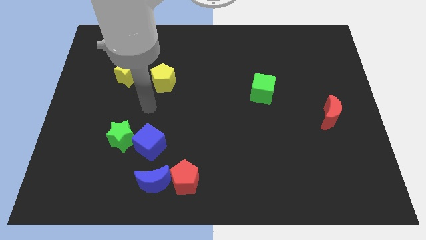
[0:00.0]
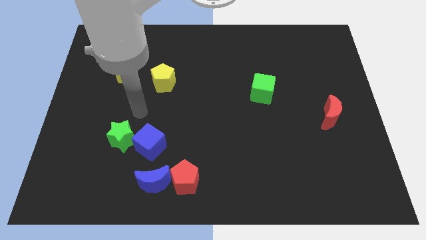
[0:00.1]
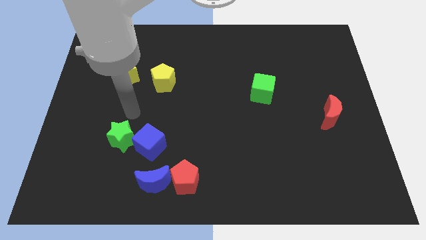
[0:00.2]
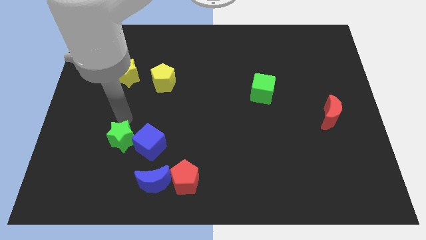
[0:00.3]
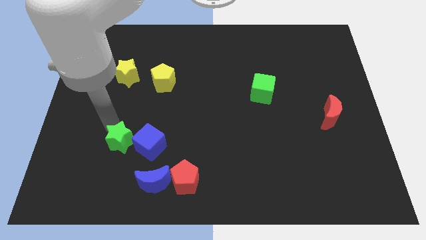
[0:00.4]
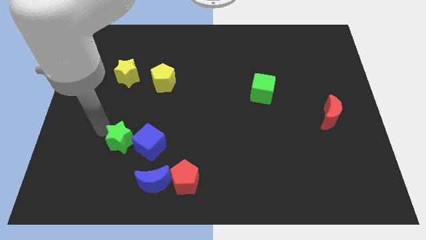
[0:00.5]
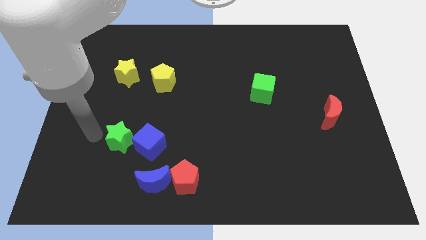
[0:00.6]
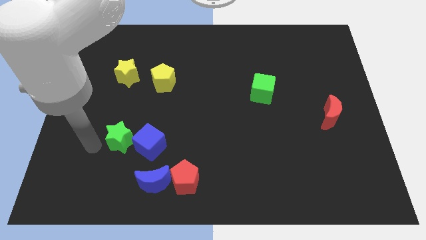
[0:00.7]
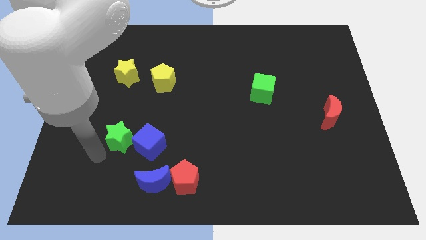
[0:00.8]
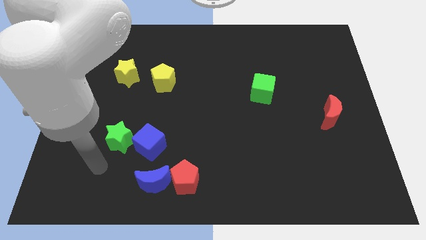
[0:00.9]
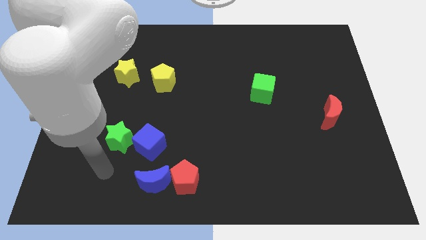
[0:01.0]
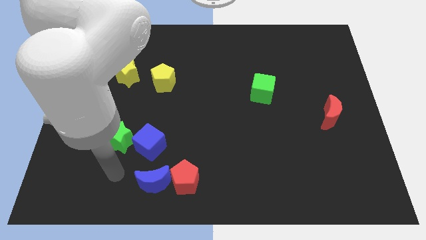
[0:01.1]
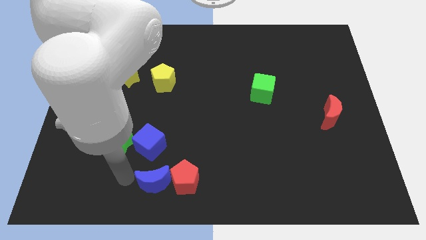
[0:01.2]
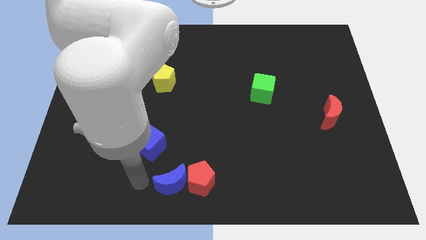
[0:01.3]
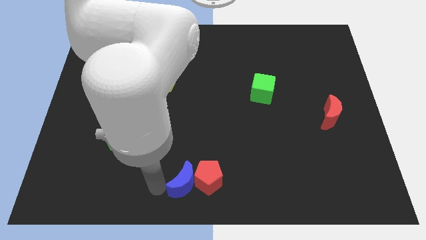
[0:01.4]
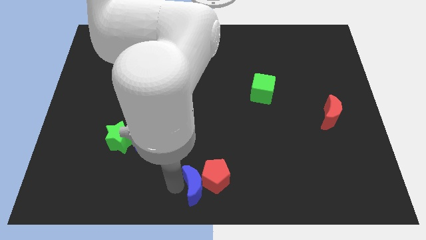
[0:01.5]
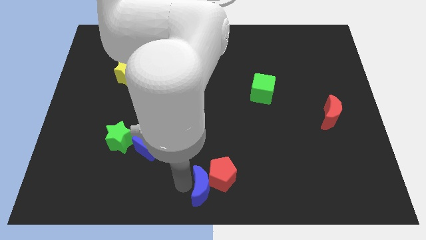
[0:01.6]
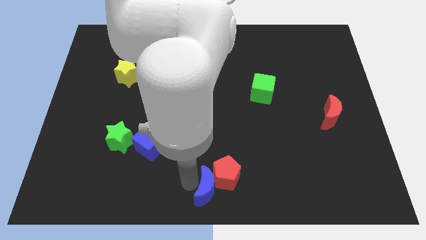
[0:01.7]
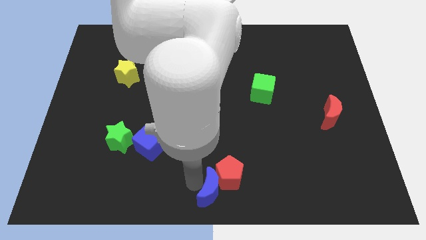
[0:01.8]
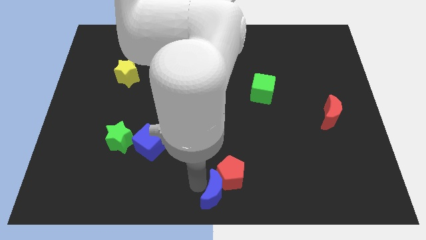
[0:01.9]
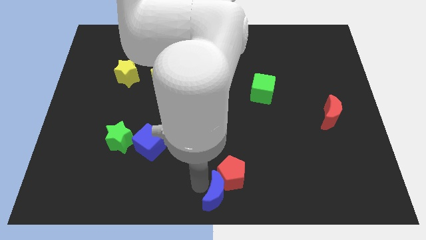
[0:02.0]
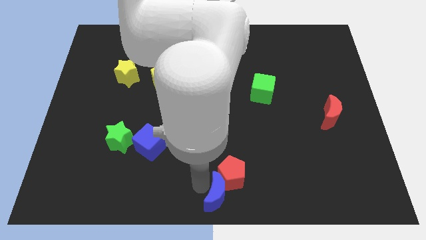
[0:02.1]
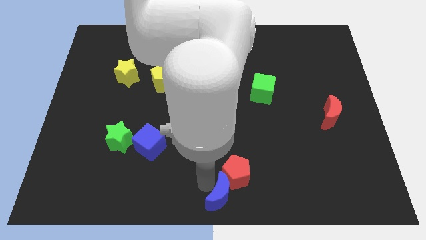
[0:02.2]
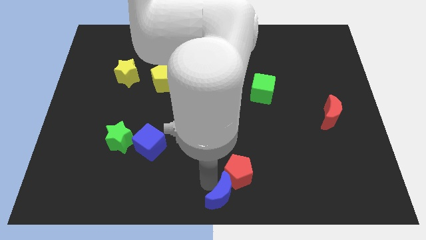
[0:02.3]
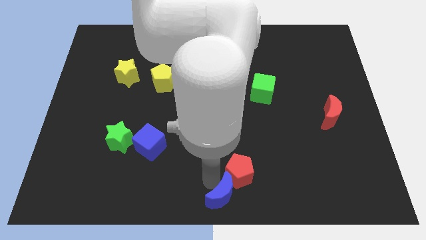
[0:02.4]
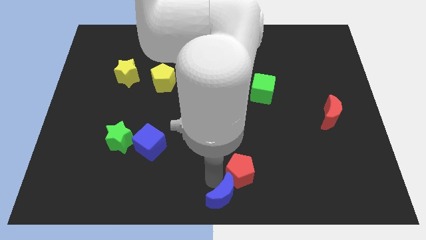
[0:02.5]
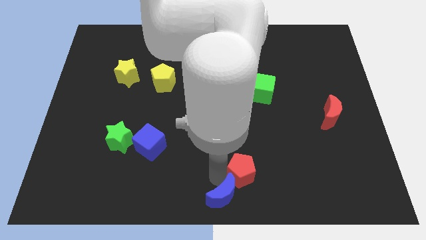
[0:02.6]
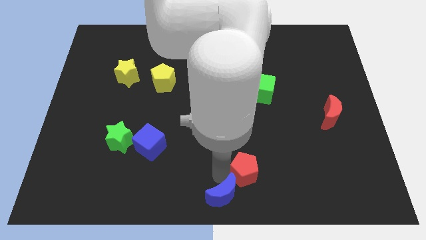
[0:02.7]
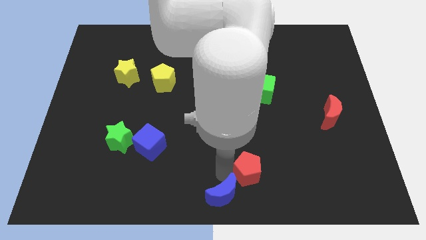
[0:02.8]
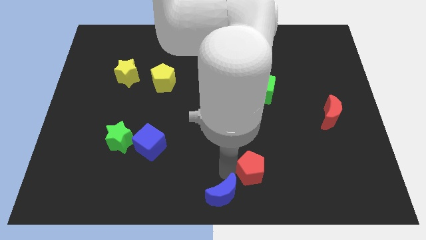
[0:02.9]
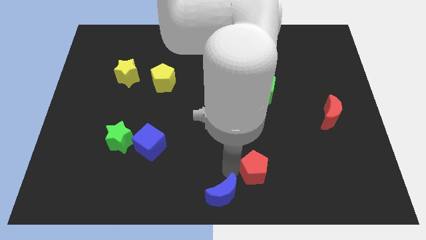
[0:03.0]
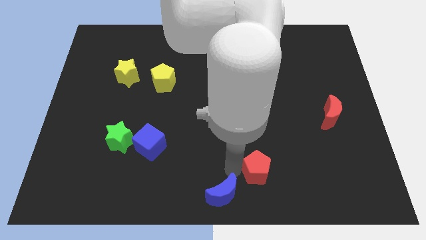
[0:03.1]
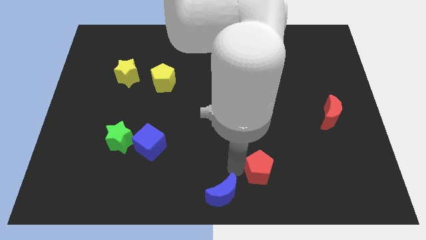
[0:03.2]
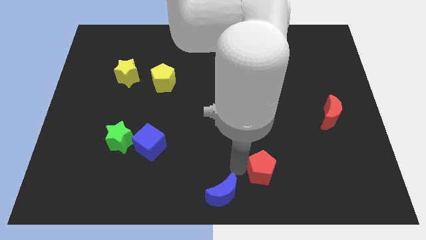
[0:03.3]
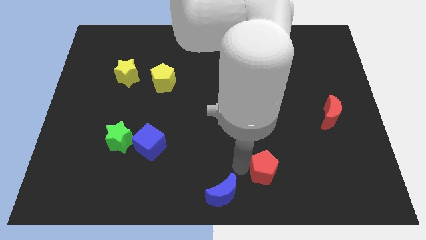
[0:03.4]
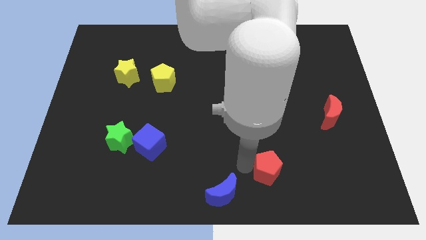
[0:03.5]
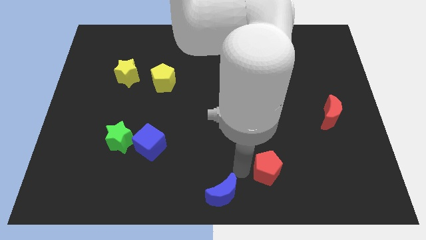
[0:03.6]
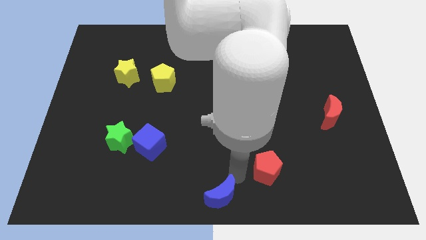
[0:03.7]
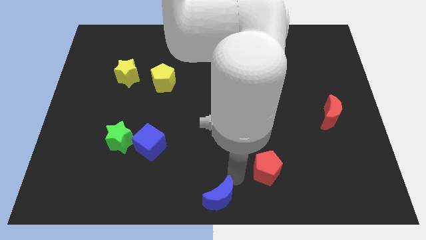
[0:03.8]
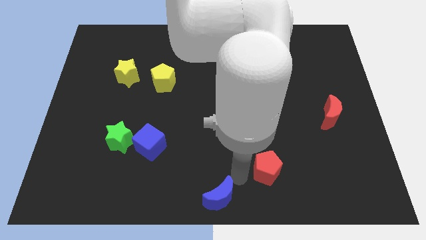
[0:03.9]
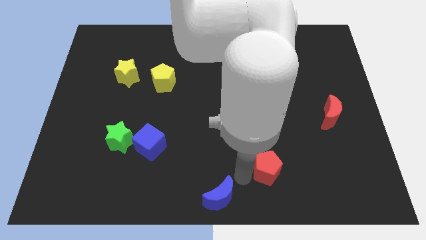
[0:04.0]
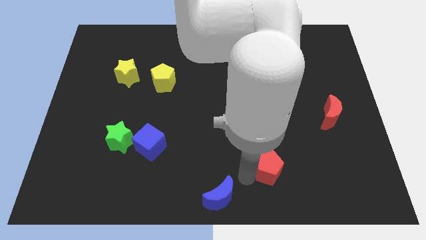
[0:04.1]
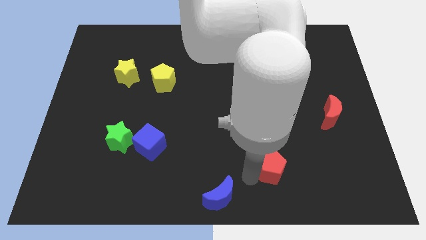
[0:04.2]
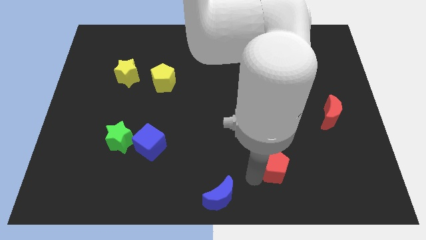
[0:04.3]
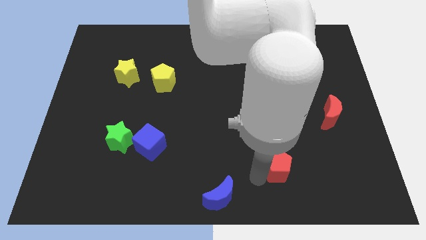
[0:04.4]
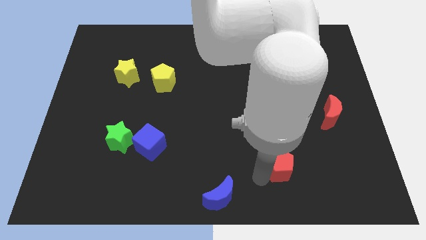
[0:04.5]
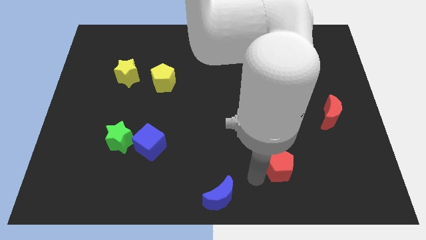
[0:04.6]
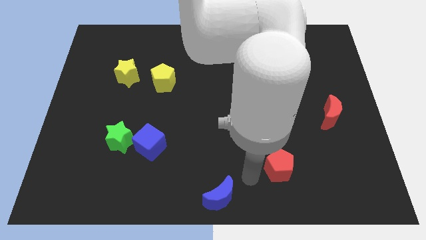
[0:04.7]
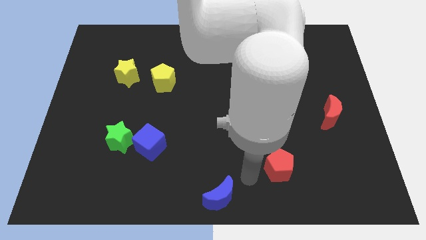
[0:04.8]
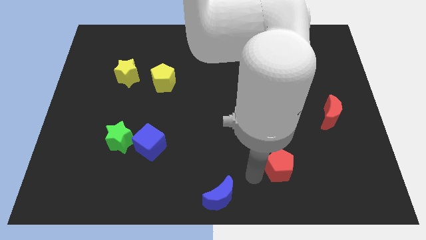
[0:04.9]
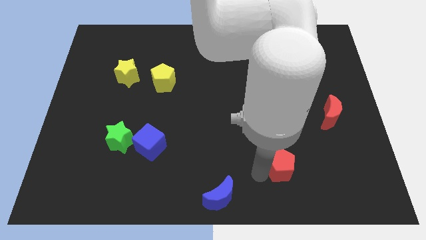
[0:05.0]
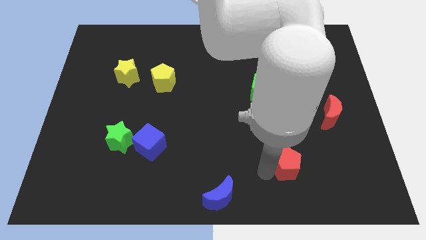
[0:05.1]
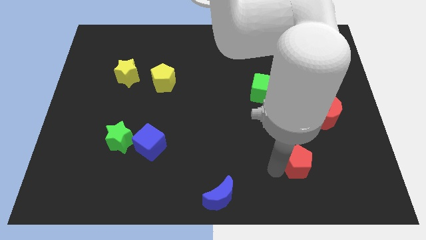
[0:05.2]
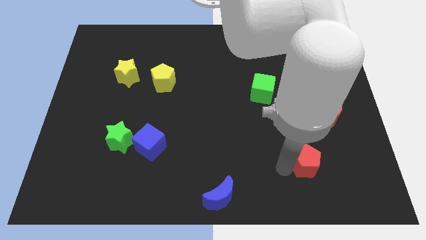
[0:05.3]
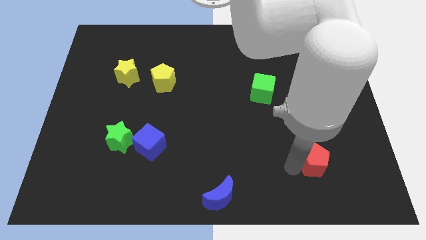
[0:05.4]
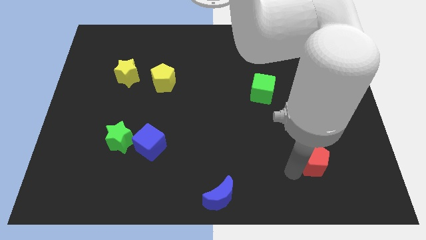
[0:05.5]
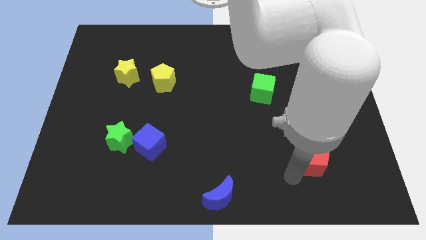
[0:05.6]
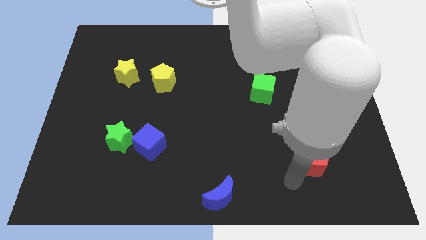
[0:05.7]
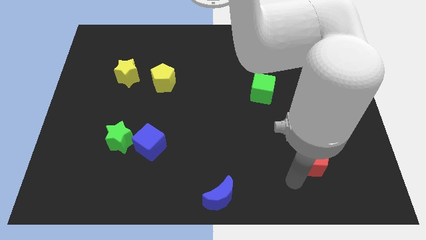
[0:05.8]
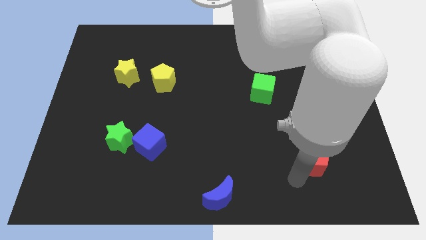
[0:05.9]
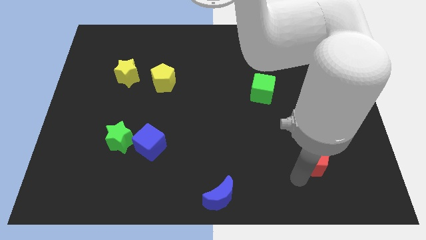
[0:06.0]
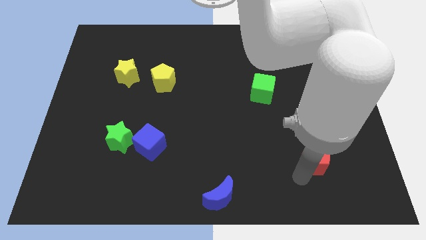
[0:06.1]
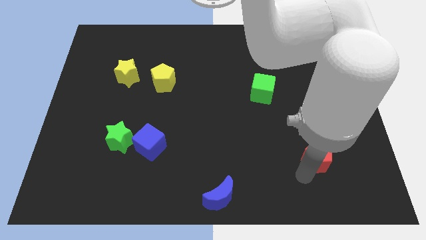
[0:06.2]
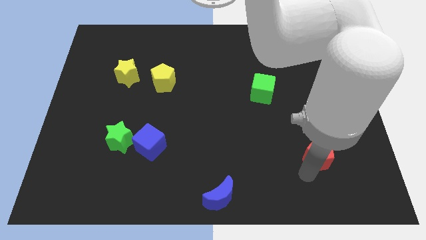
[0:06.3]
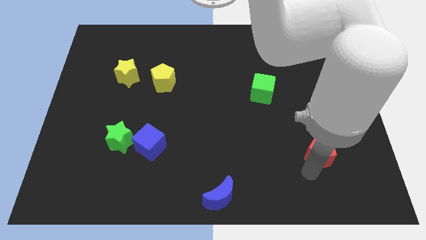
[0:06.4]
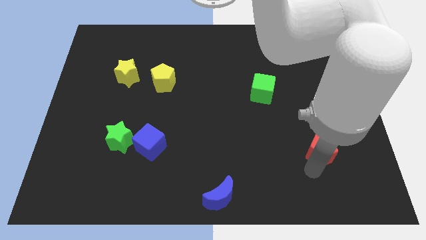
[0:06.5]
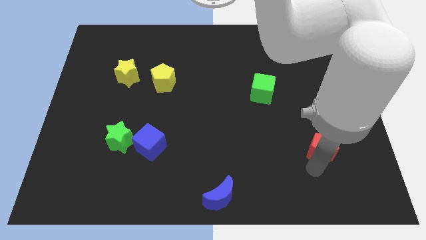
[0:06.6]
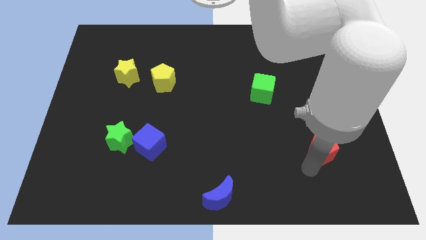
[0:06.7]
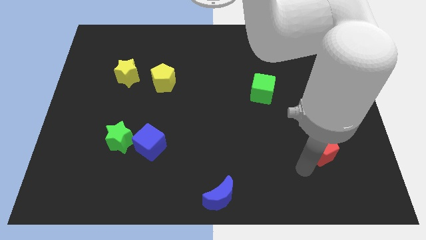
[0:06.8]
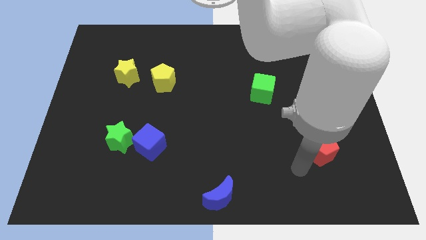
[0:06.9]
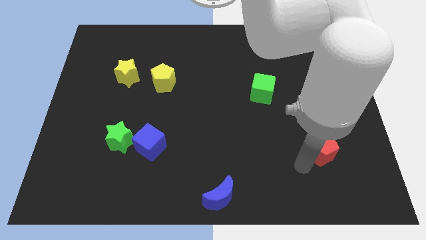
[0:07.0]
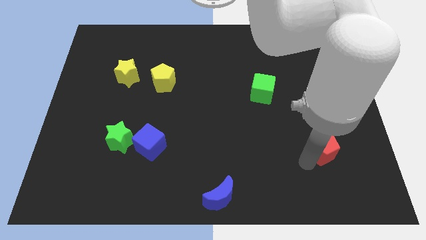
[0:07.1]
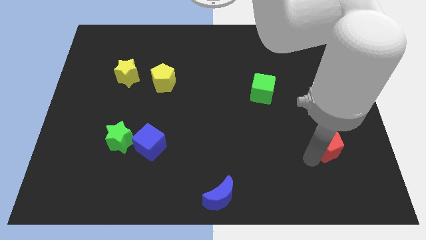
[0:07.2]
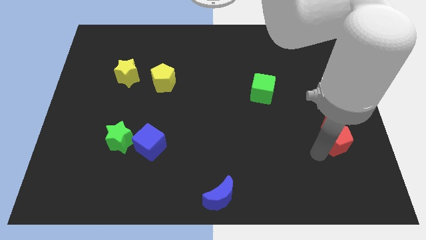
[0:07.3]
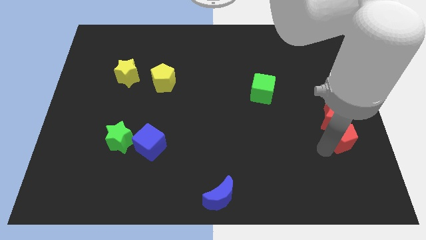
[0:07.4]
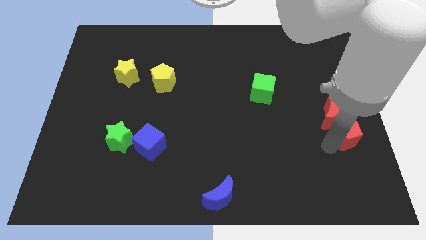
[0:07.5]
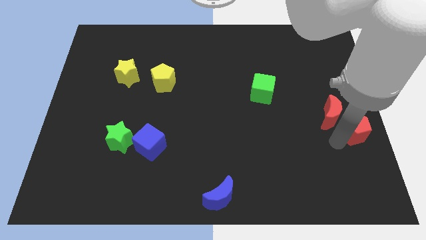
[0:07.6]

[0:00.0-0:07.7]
move the red pentagon to the right side of the board
